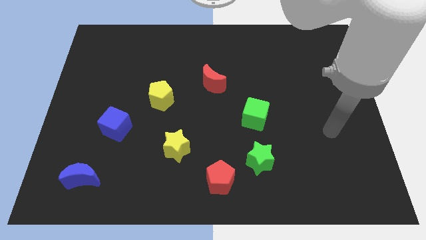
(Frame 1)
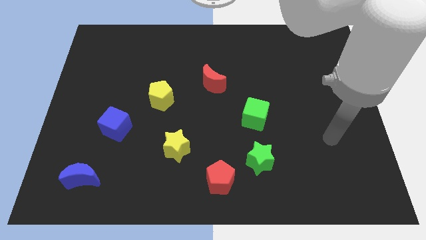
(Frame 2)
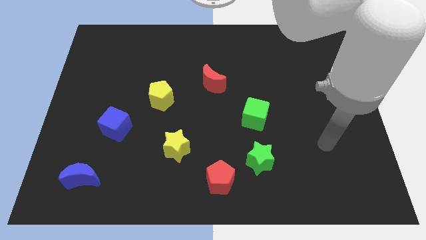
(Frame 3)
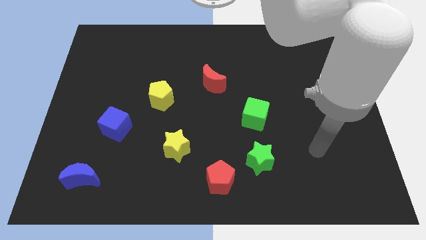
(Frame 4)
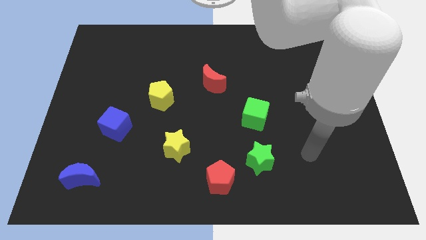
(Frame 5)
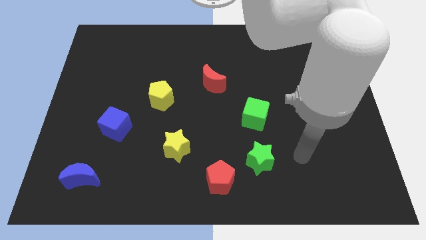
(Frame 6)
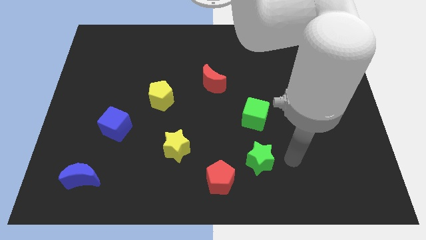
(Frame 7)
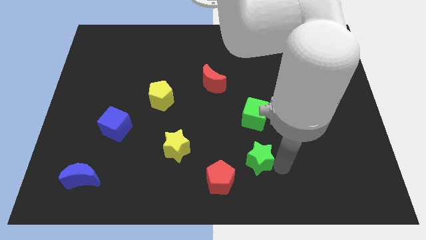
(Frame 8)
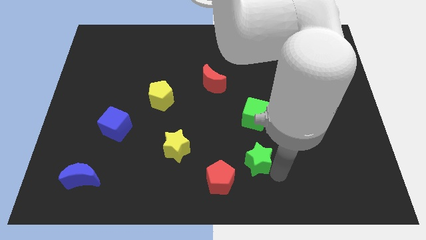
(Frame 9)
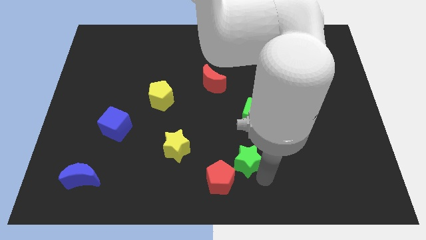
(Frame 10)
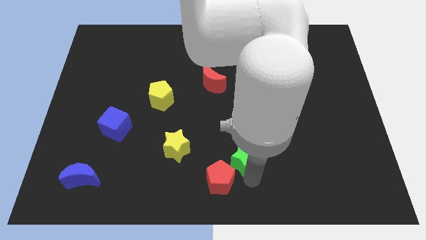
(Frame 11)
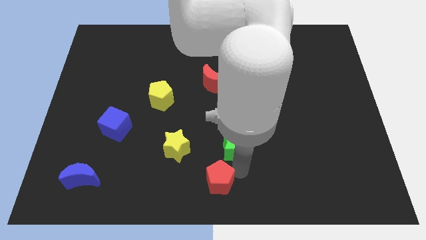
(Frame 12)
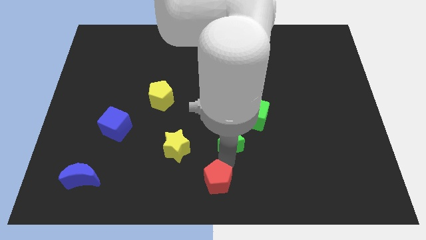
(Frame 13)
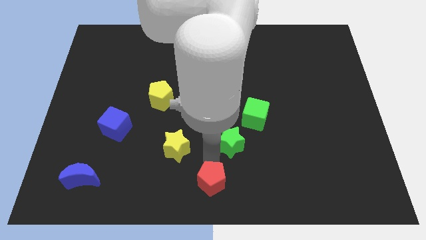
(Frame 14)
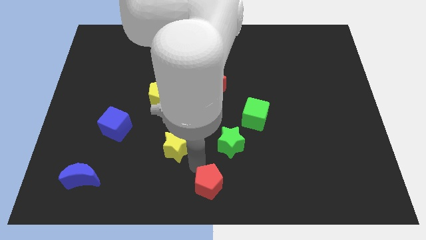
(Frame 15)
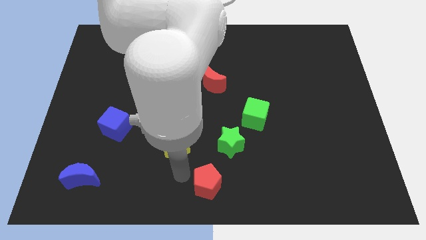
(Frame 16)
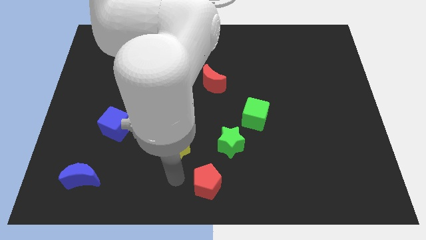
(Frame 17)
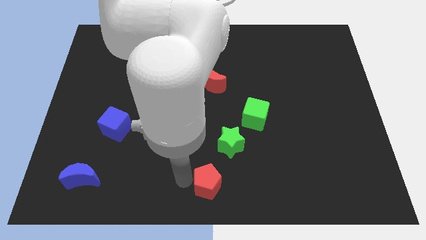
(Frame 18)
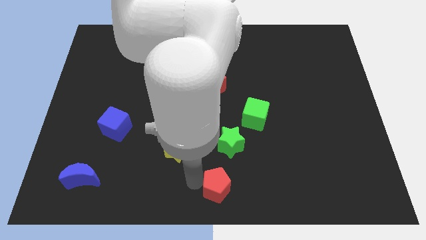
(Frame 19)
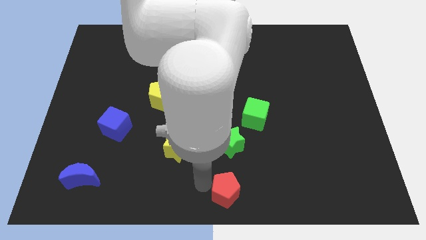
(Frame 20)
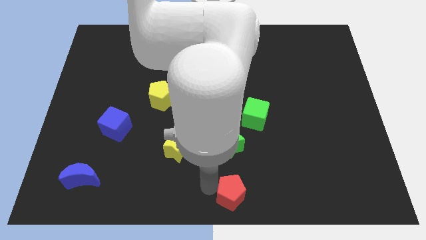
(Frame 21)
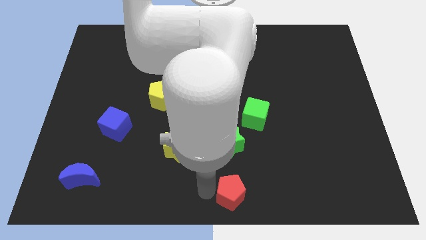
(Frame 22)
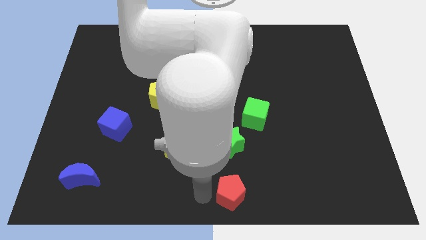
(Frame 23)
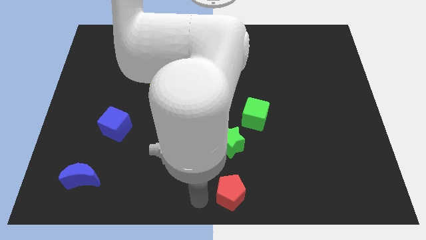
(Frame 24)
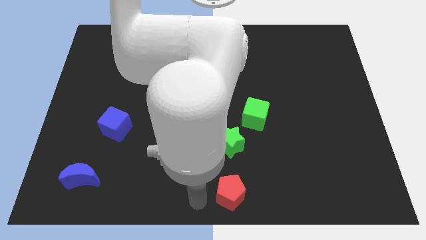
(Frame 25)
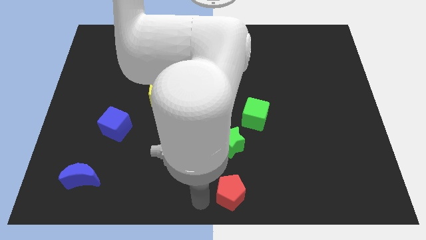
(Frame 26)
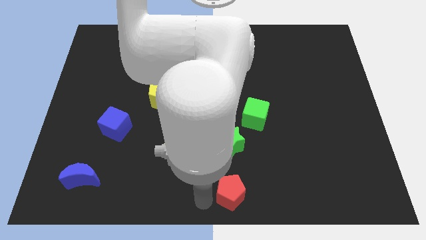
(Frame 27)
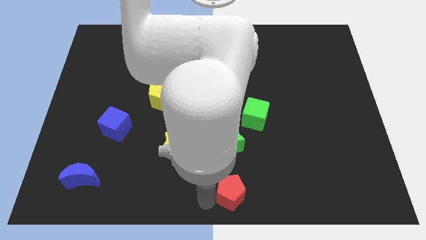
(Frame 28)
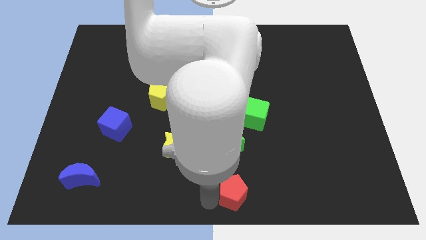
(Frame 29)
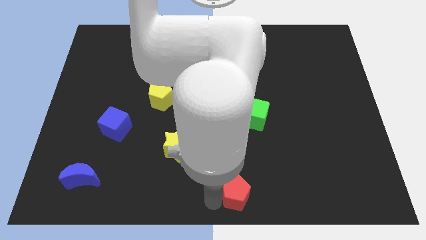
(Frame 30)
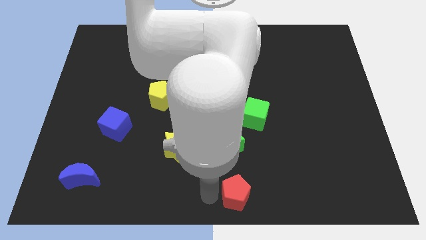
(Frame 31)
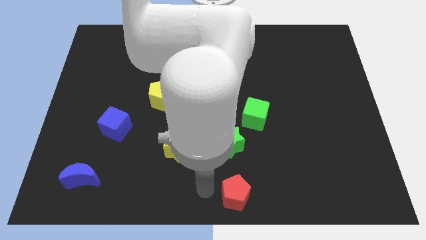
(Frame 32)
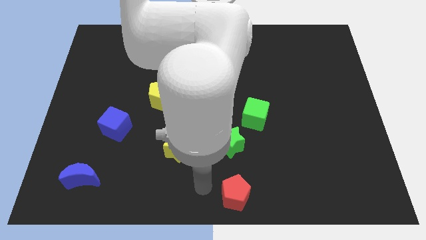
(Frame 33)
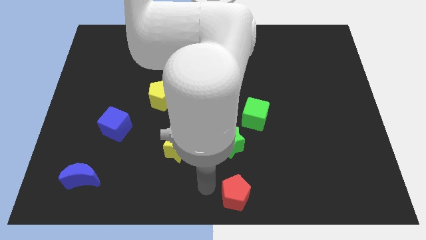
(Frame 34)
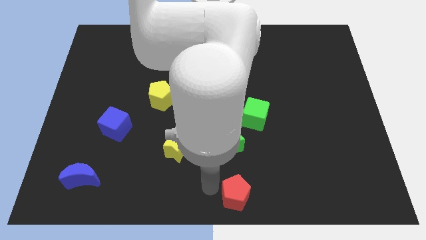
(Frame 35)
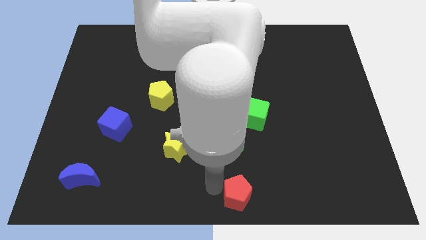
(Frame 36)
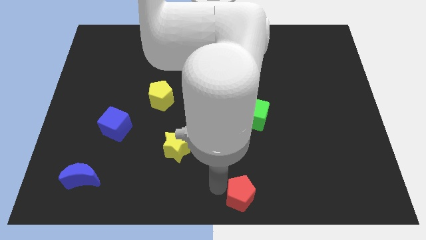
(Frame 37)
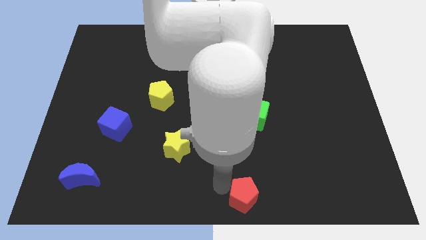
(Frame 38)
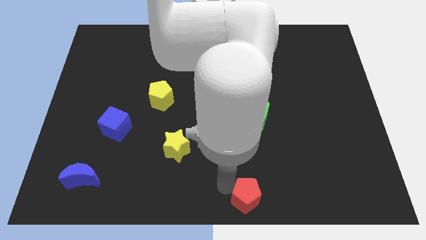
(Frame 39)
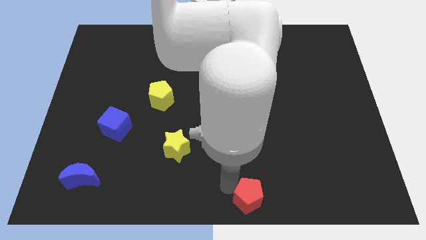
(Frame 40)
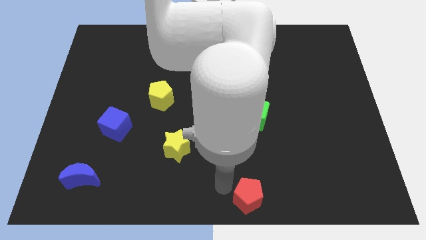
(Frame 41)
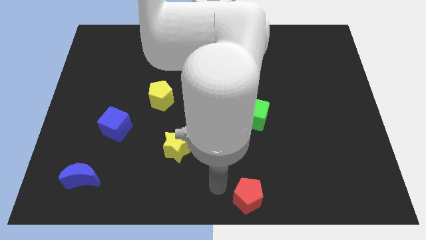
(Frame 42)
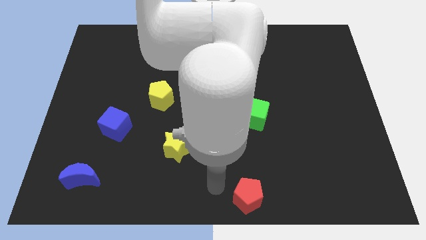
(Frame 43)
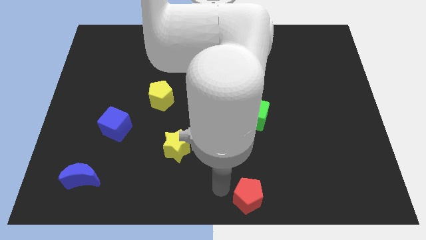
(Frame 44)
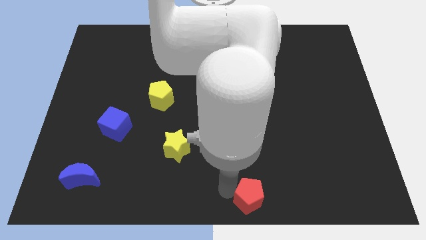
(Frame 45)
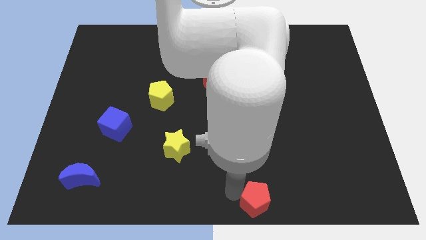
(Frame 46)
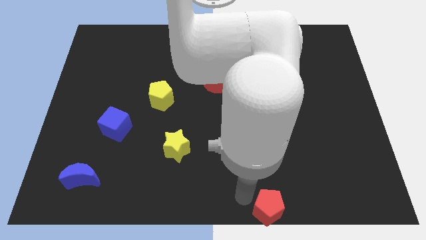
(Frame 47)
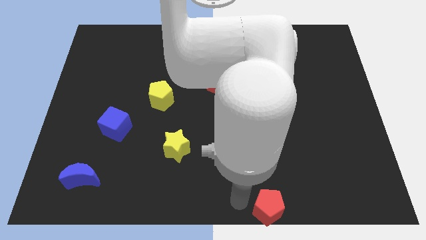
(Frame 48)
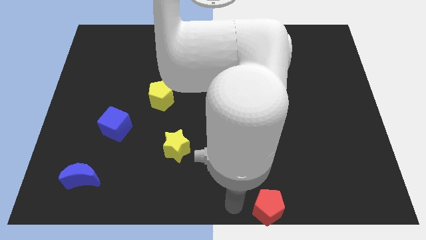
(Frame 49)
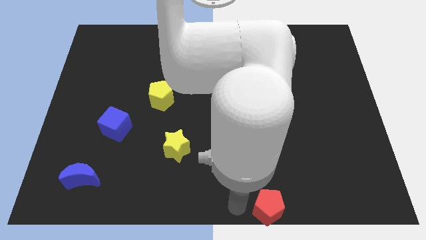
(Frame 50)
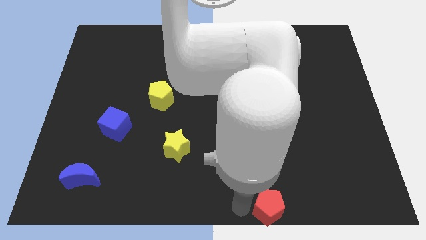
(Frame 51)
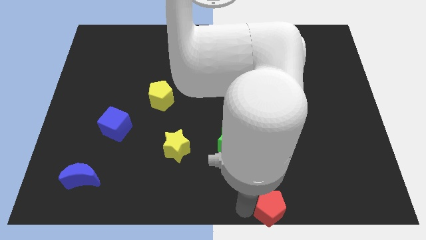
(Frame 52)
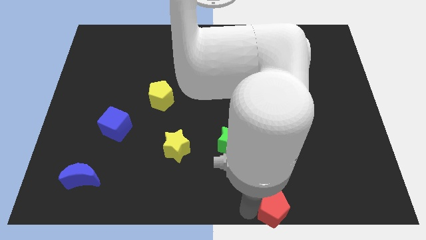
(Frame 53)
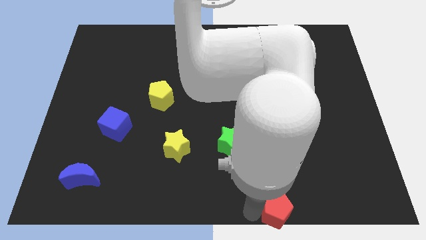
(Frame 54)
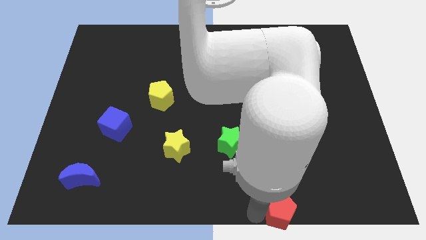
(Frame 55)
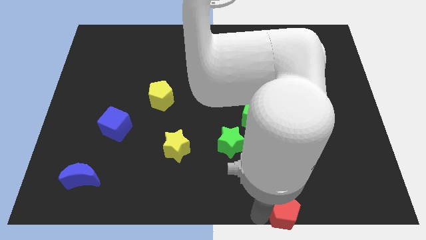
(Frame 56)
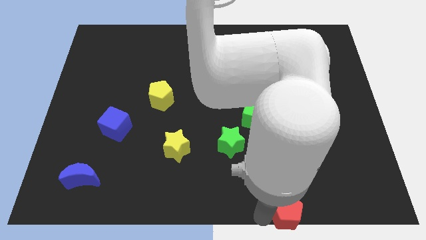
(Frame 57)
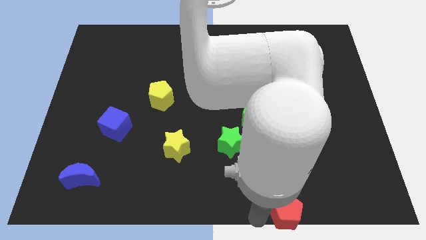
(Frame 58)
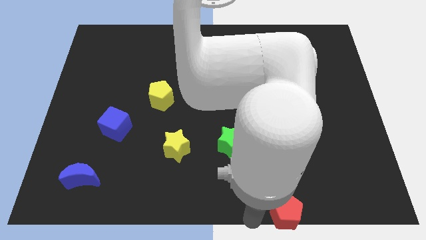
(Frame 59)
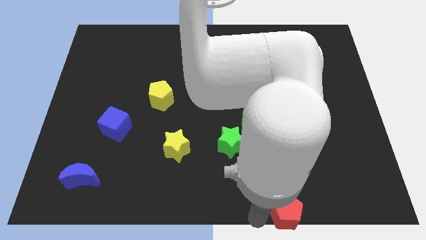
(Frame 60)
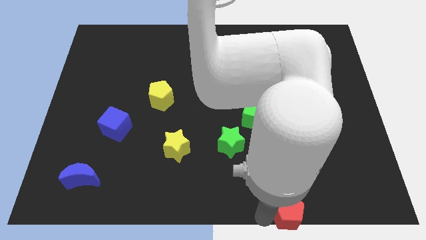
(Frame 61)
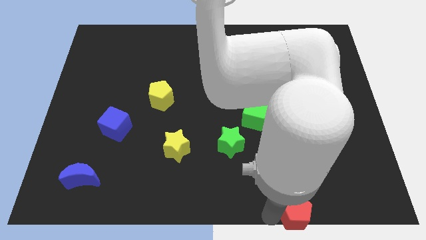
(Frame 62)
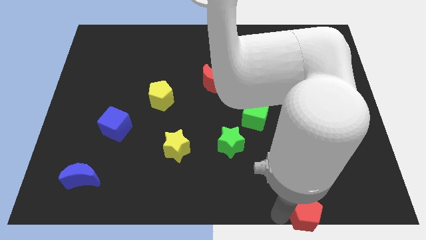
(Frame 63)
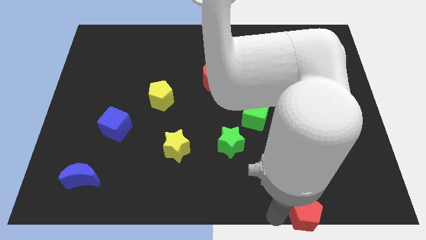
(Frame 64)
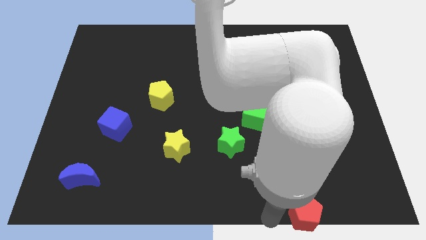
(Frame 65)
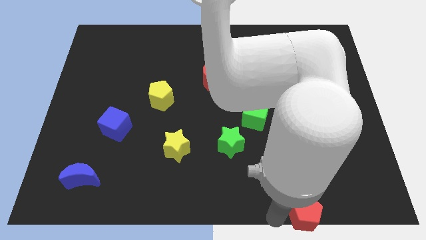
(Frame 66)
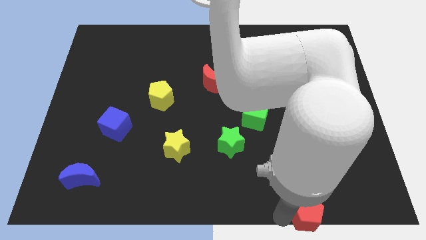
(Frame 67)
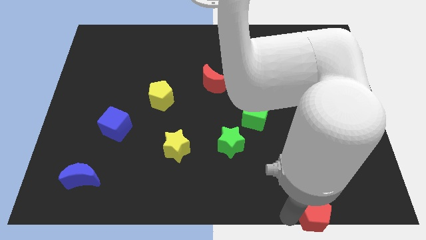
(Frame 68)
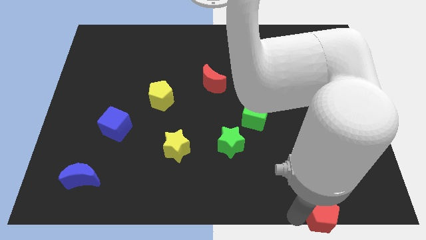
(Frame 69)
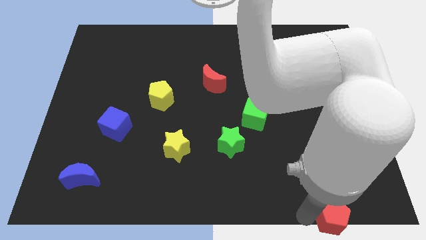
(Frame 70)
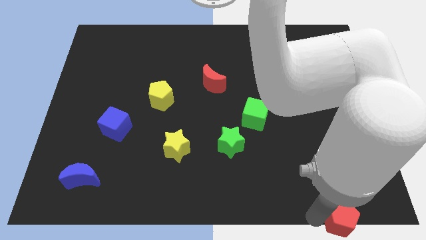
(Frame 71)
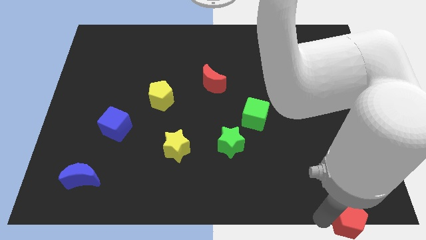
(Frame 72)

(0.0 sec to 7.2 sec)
put the red pentagon to the bottom right corner

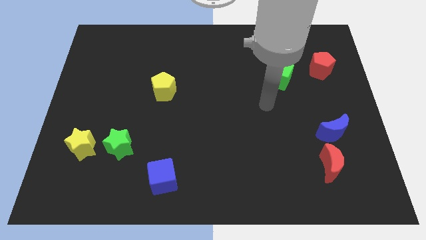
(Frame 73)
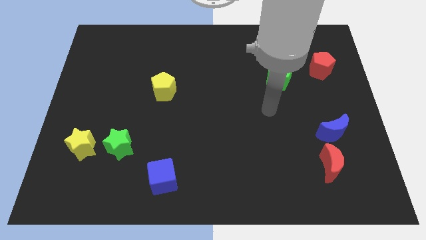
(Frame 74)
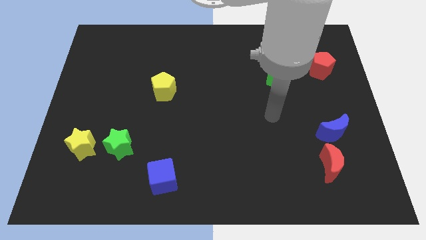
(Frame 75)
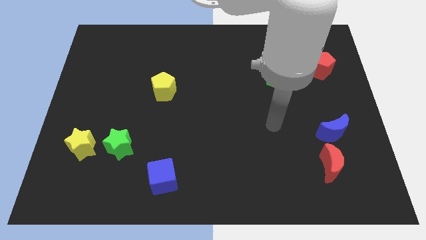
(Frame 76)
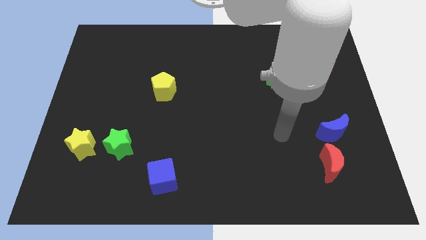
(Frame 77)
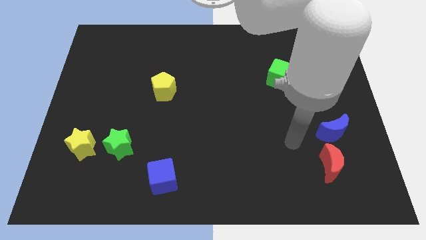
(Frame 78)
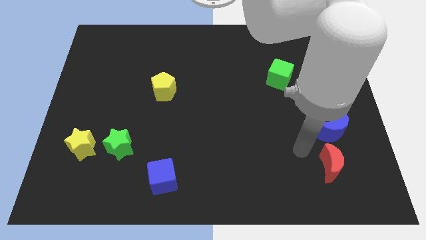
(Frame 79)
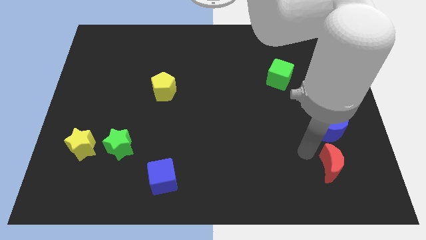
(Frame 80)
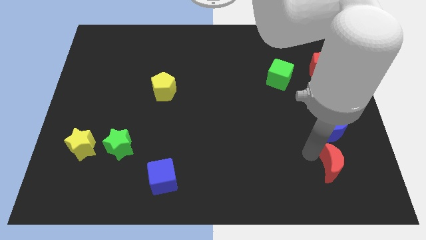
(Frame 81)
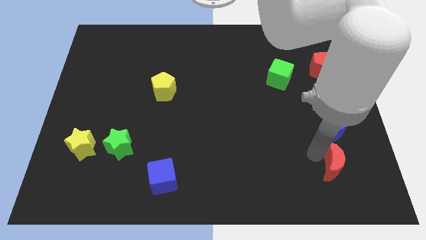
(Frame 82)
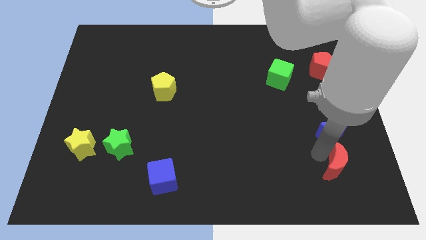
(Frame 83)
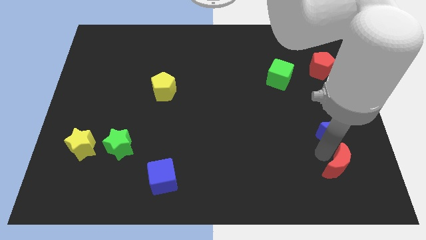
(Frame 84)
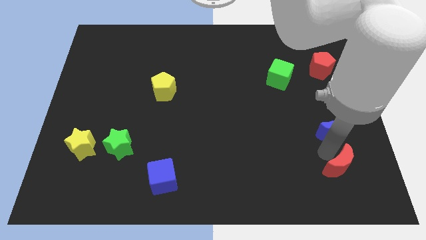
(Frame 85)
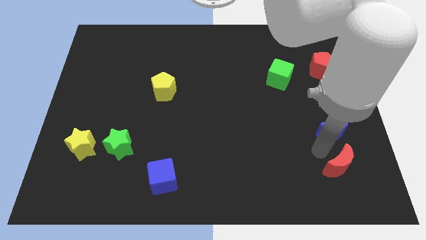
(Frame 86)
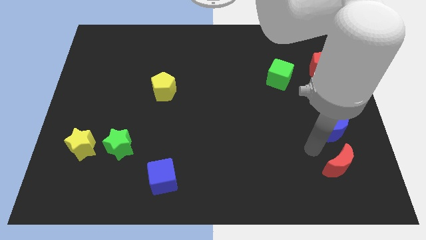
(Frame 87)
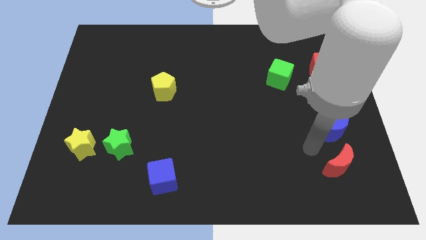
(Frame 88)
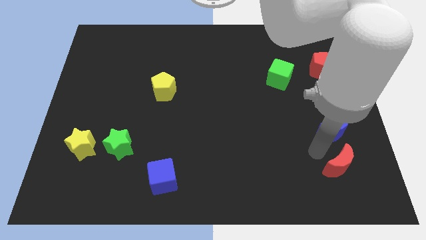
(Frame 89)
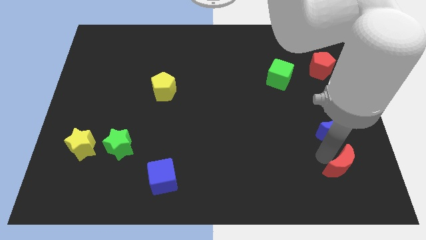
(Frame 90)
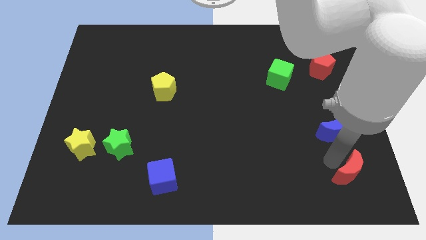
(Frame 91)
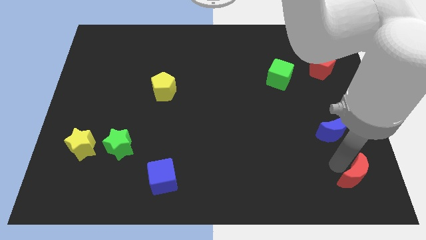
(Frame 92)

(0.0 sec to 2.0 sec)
push the red moon to the bottom right of the board
